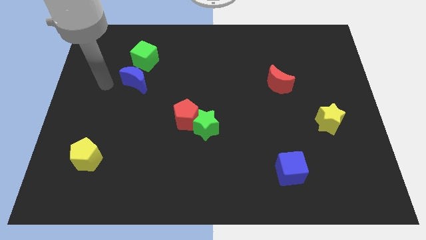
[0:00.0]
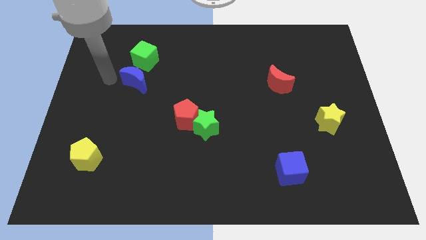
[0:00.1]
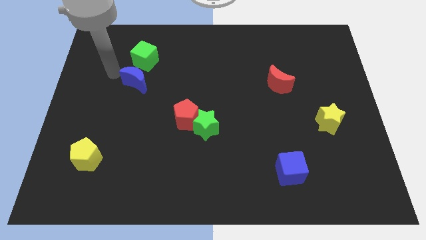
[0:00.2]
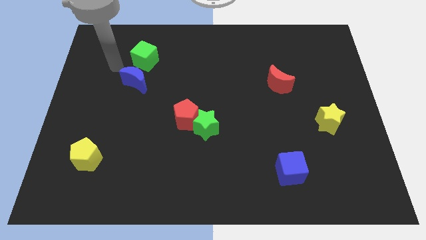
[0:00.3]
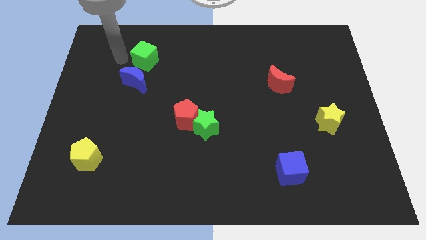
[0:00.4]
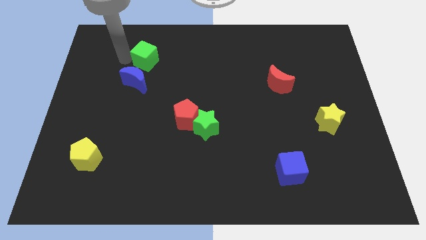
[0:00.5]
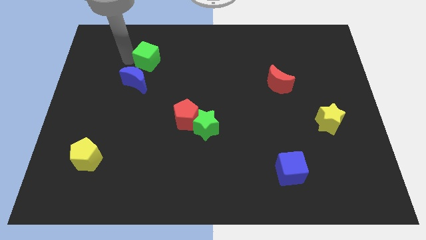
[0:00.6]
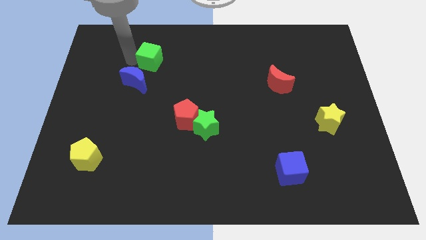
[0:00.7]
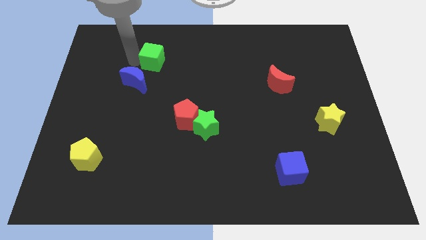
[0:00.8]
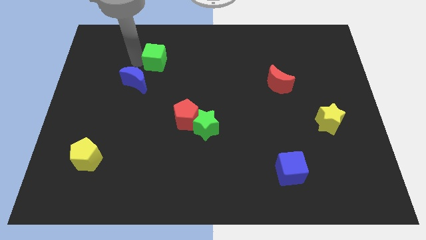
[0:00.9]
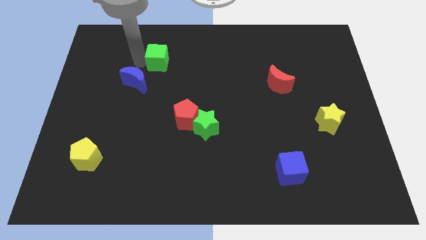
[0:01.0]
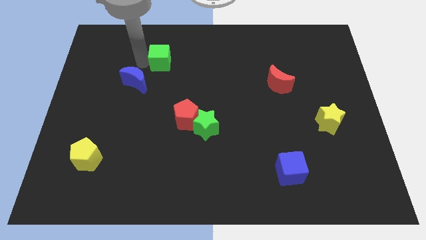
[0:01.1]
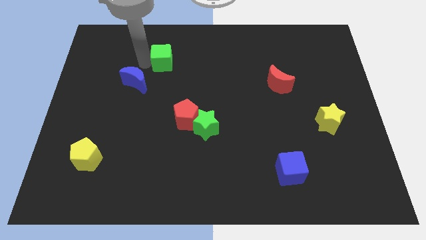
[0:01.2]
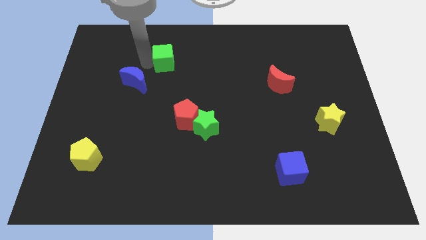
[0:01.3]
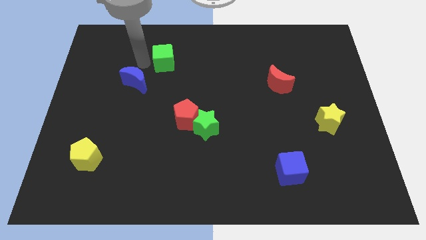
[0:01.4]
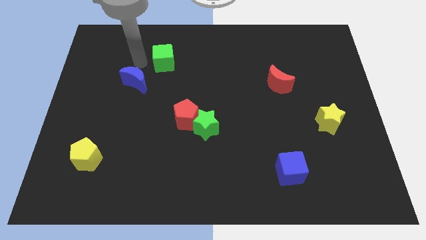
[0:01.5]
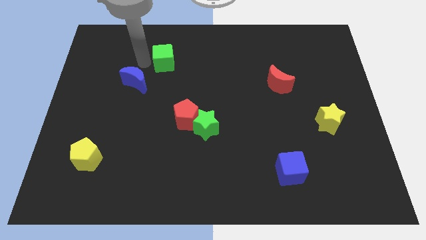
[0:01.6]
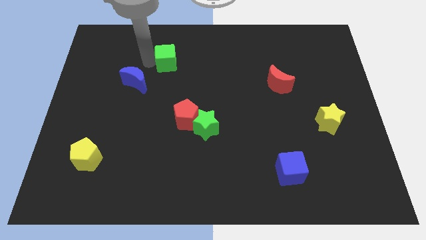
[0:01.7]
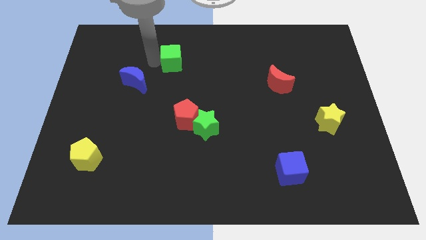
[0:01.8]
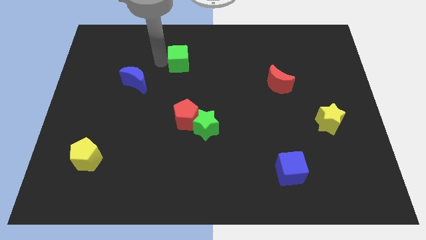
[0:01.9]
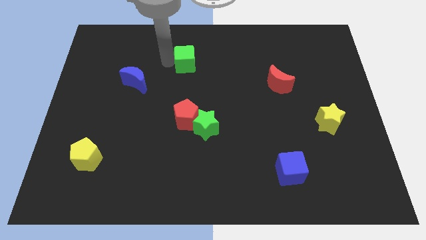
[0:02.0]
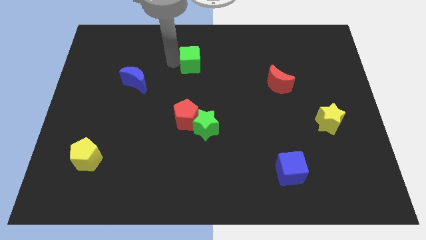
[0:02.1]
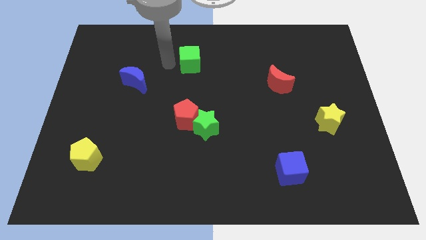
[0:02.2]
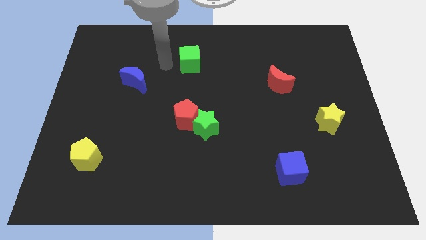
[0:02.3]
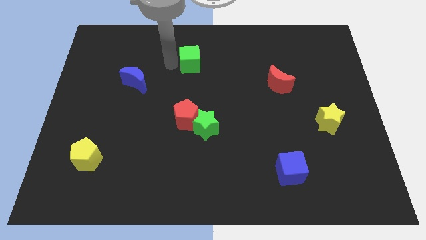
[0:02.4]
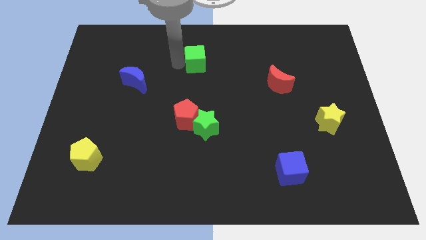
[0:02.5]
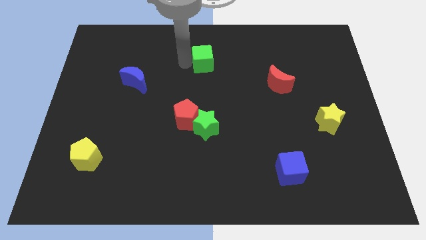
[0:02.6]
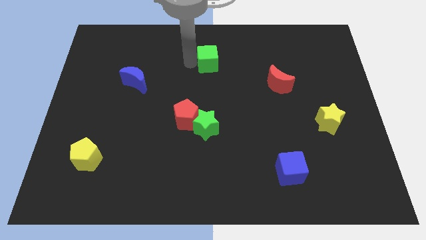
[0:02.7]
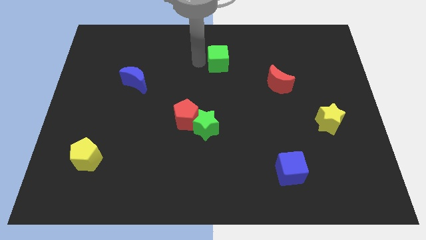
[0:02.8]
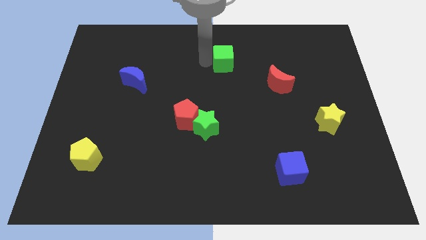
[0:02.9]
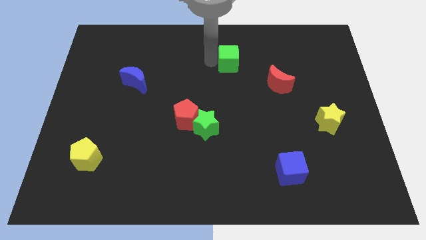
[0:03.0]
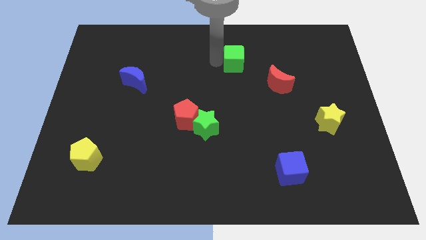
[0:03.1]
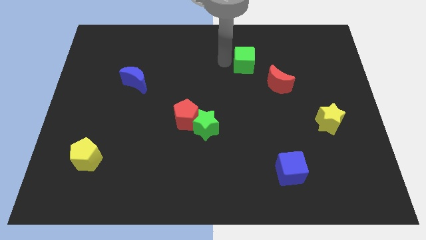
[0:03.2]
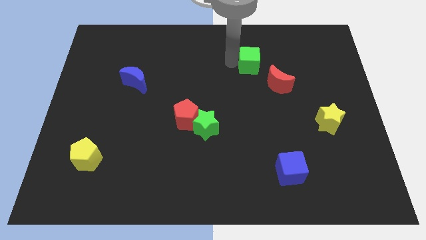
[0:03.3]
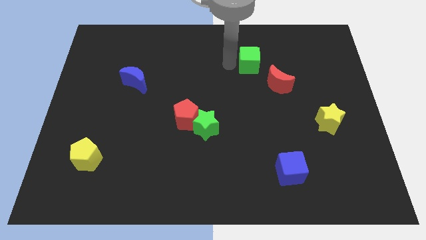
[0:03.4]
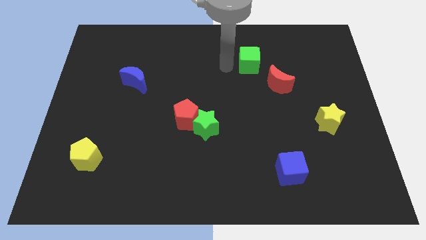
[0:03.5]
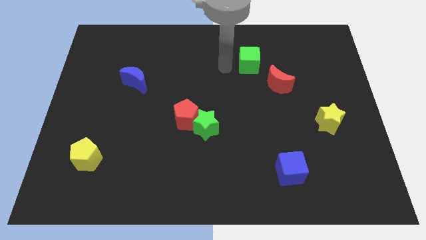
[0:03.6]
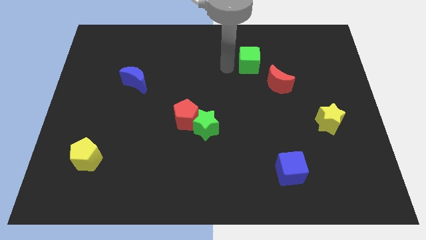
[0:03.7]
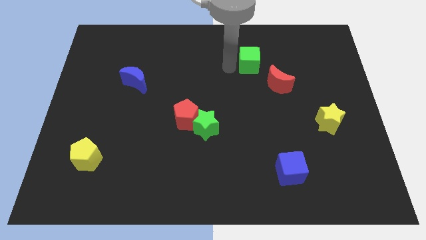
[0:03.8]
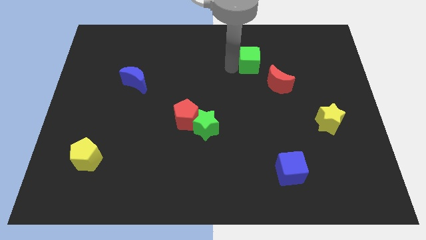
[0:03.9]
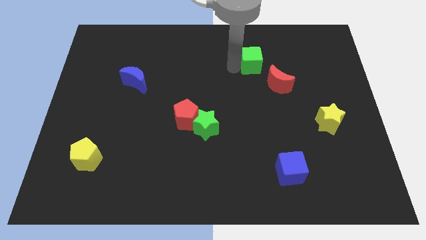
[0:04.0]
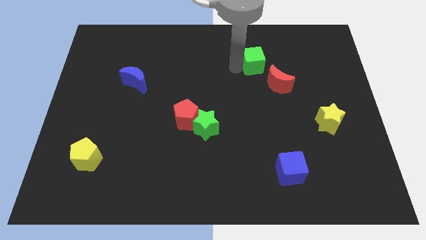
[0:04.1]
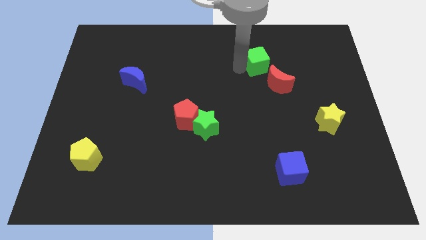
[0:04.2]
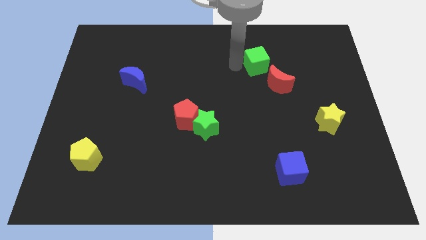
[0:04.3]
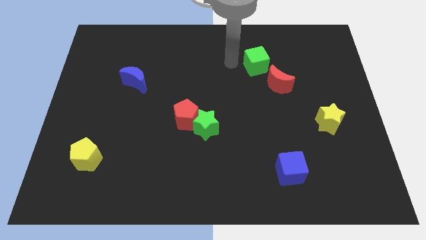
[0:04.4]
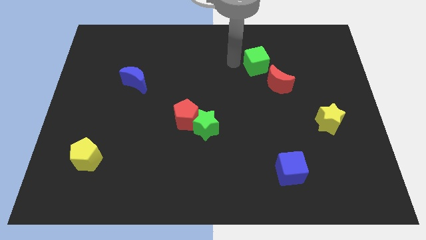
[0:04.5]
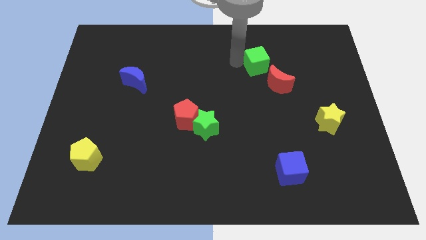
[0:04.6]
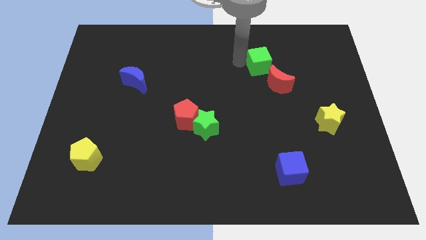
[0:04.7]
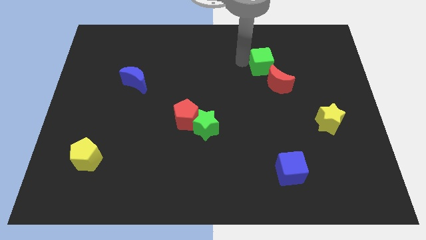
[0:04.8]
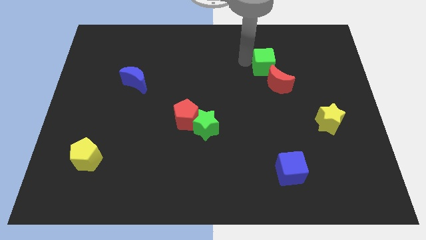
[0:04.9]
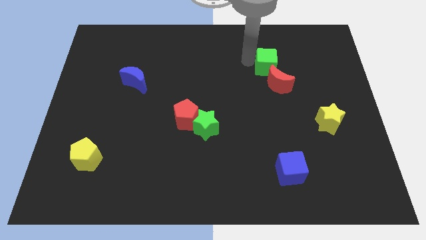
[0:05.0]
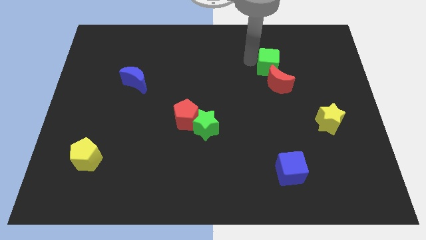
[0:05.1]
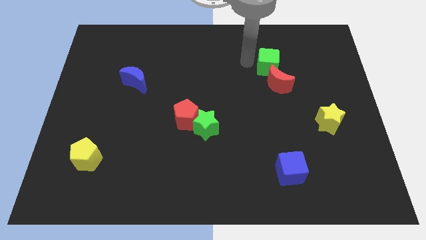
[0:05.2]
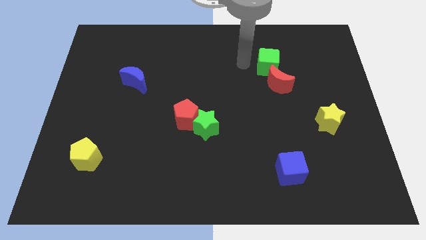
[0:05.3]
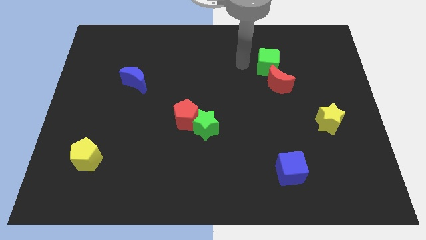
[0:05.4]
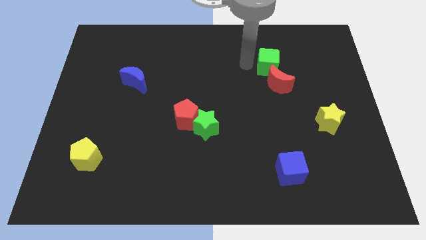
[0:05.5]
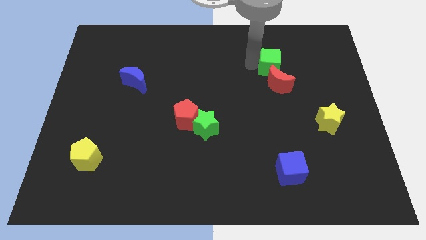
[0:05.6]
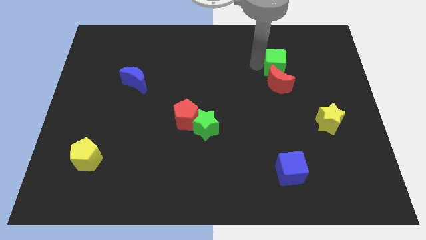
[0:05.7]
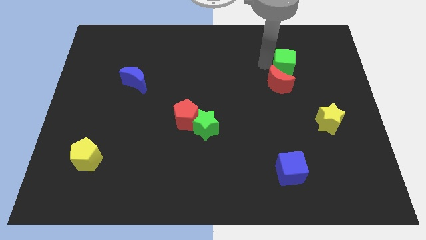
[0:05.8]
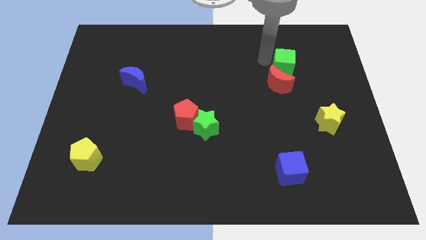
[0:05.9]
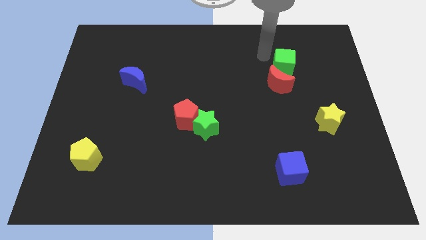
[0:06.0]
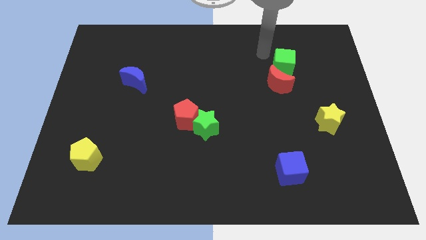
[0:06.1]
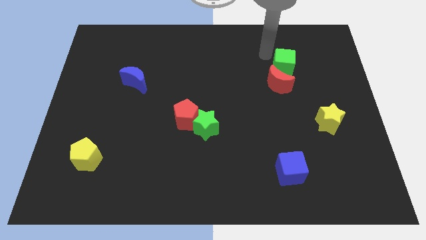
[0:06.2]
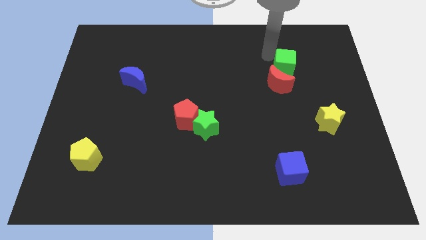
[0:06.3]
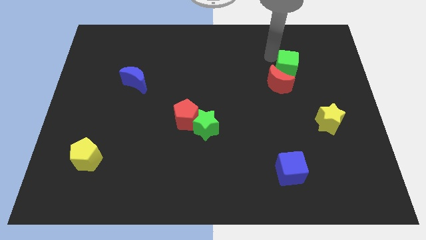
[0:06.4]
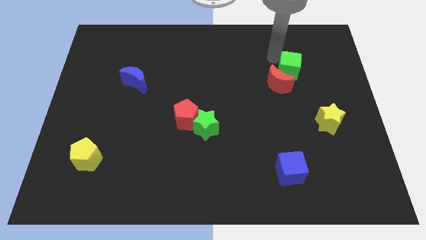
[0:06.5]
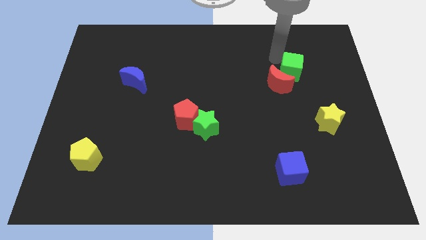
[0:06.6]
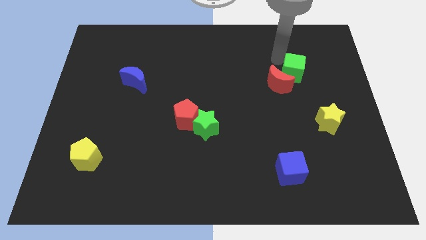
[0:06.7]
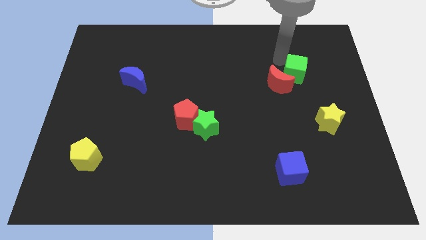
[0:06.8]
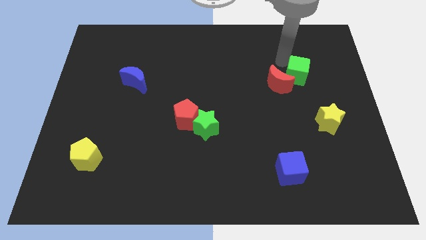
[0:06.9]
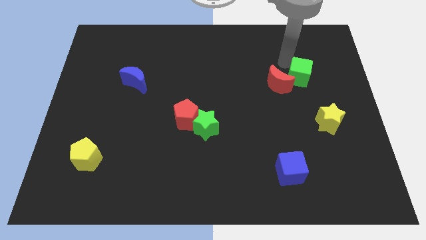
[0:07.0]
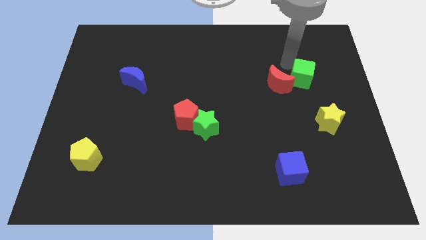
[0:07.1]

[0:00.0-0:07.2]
push the green cube above the yellow star

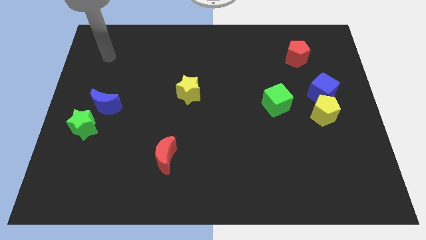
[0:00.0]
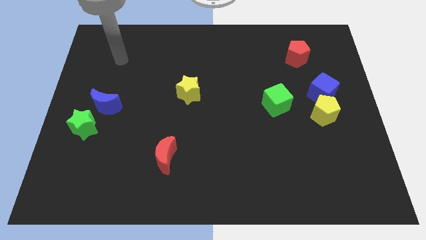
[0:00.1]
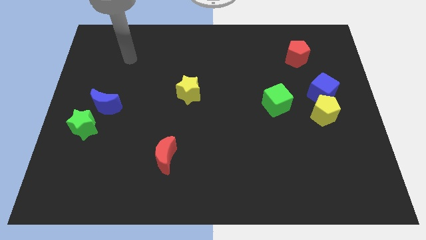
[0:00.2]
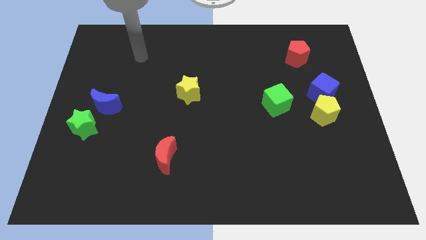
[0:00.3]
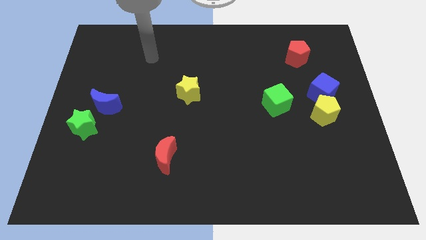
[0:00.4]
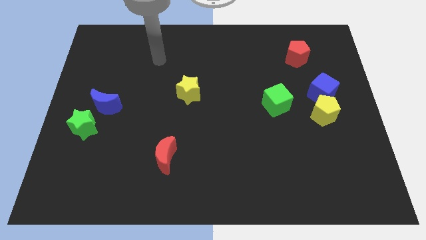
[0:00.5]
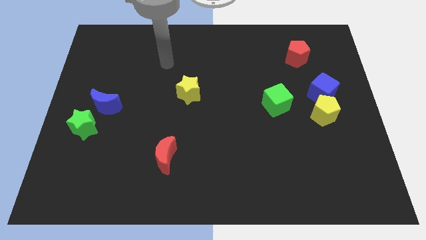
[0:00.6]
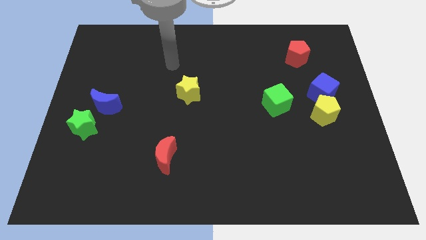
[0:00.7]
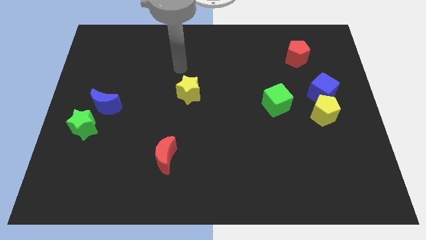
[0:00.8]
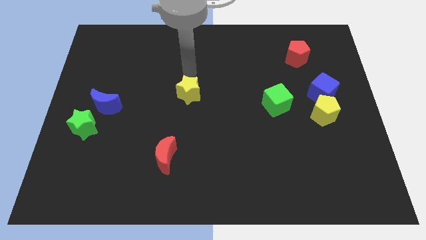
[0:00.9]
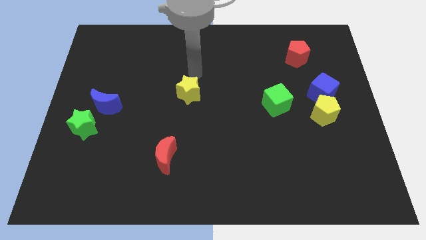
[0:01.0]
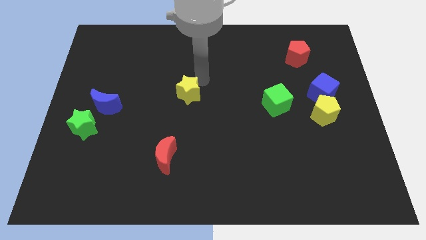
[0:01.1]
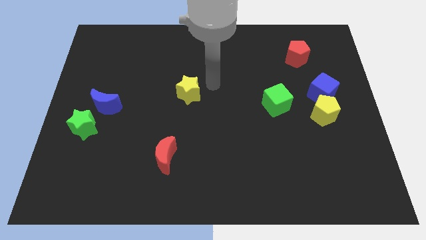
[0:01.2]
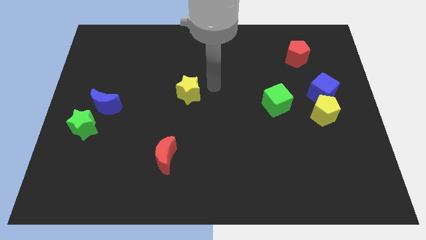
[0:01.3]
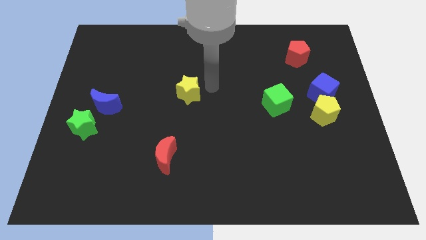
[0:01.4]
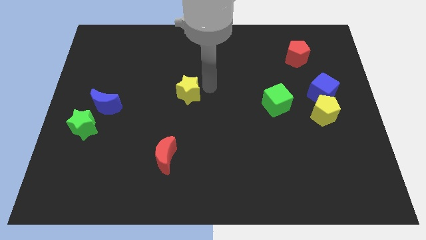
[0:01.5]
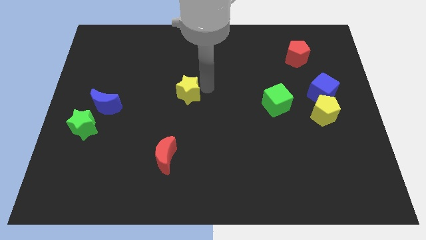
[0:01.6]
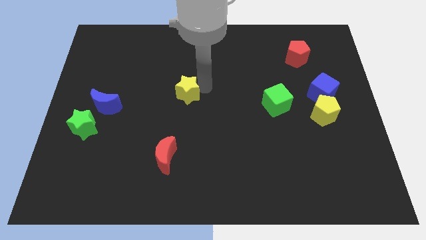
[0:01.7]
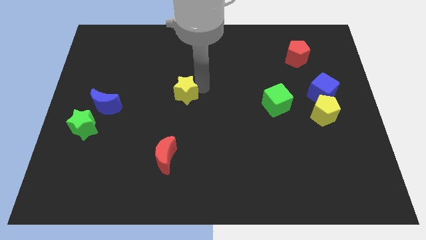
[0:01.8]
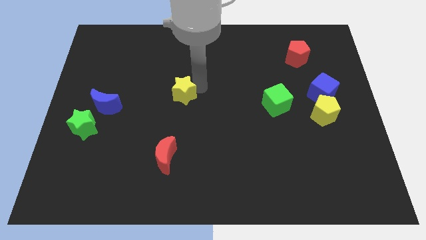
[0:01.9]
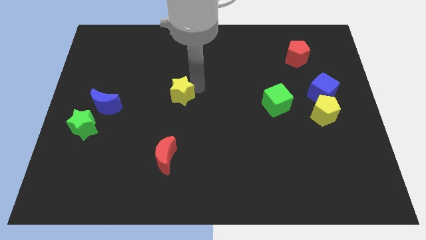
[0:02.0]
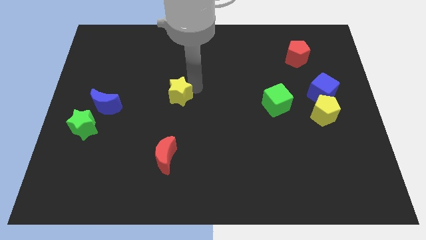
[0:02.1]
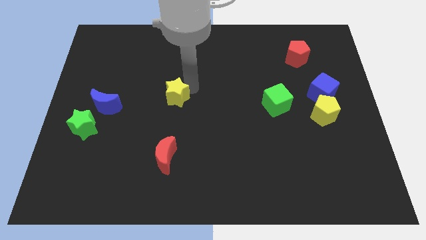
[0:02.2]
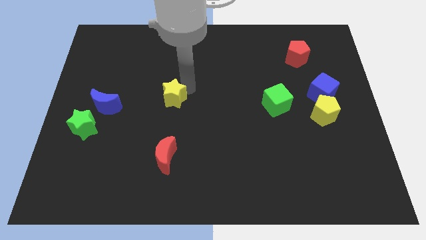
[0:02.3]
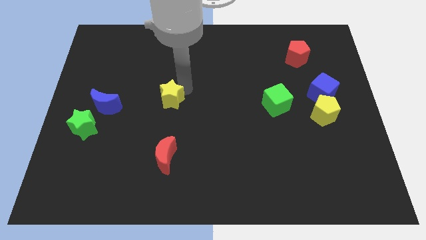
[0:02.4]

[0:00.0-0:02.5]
slide the yellow star to the right side of the blue moon
